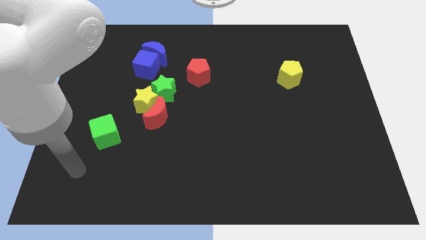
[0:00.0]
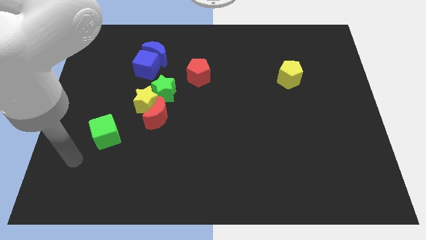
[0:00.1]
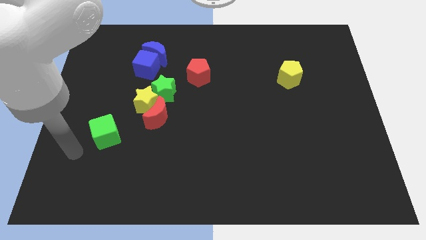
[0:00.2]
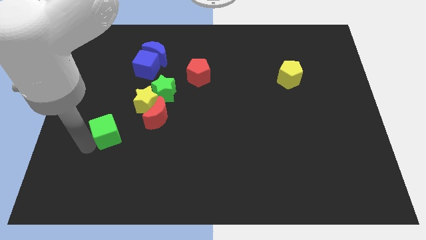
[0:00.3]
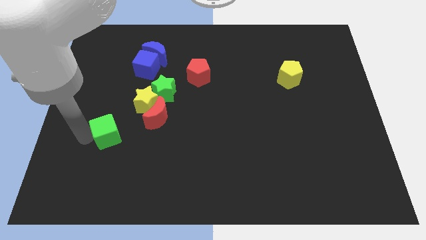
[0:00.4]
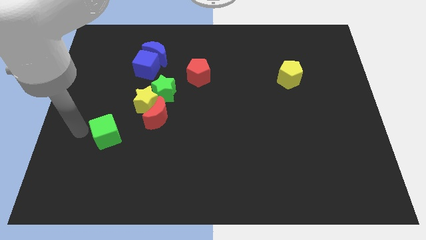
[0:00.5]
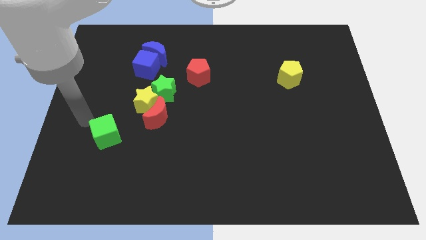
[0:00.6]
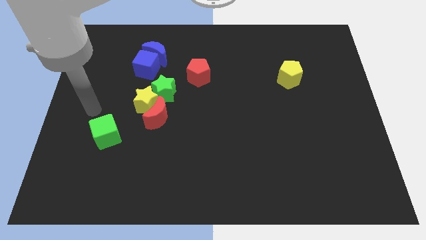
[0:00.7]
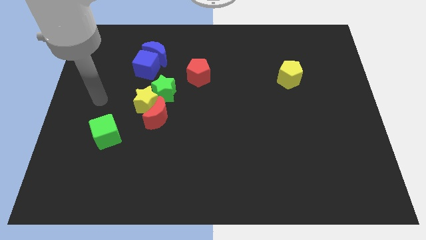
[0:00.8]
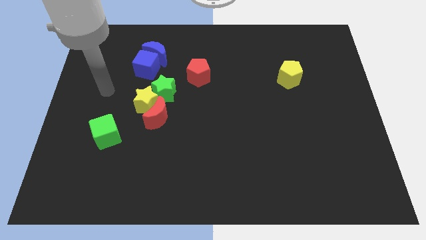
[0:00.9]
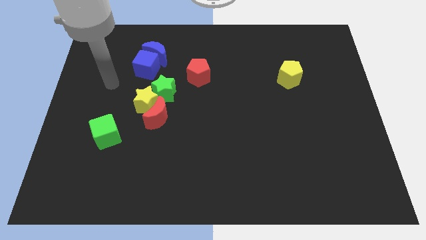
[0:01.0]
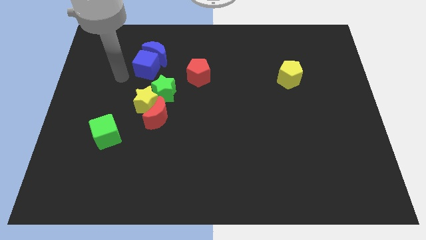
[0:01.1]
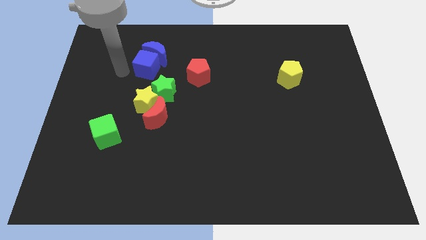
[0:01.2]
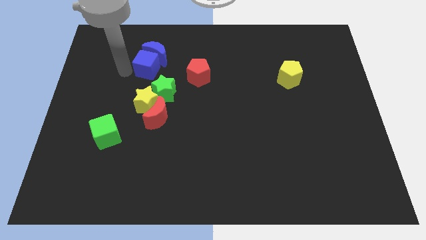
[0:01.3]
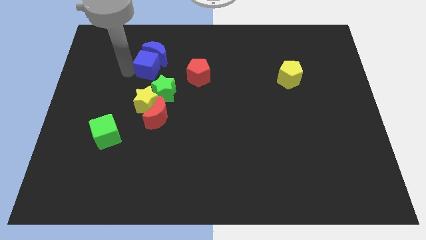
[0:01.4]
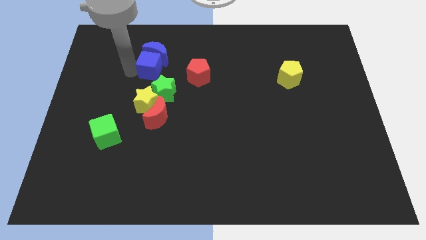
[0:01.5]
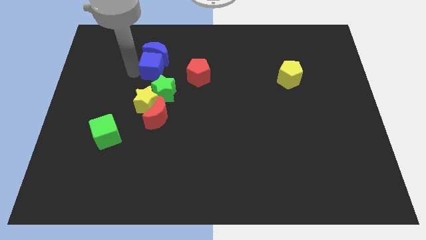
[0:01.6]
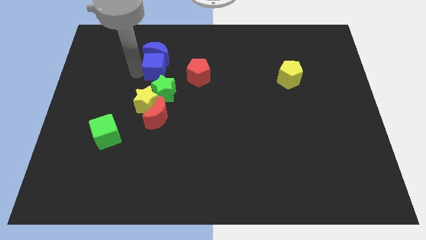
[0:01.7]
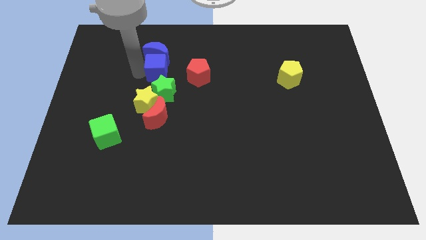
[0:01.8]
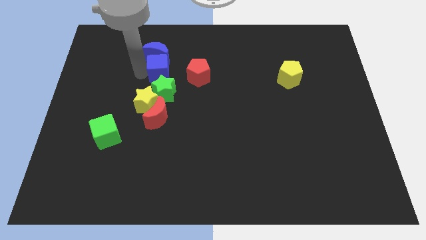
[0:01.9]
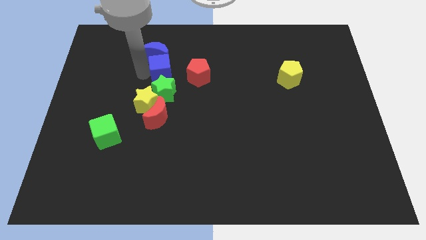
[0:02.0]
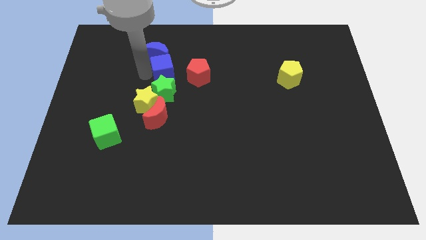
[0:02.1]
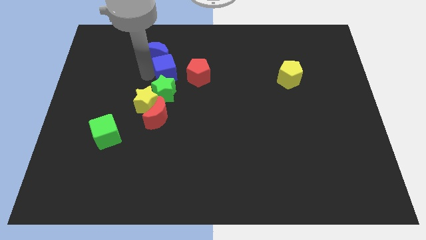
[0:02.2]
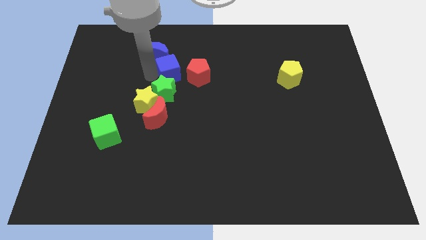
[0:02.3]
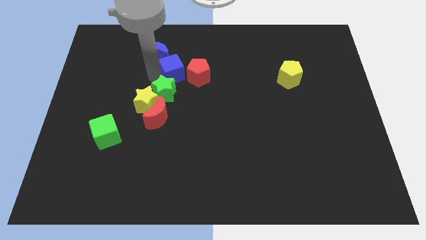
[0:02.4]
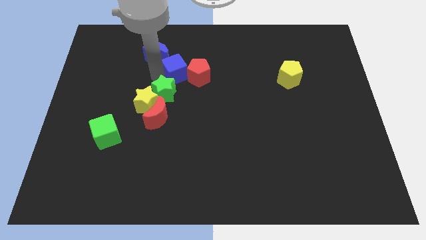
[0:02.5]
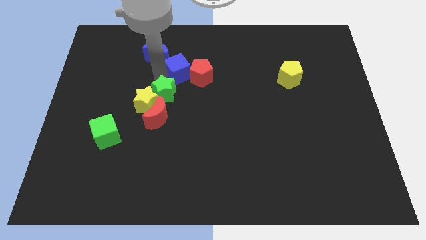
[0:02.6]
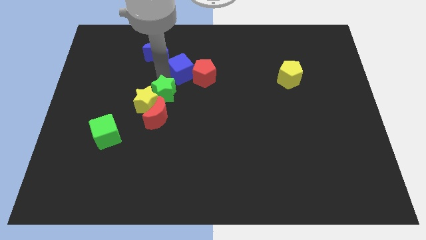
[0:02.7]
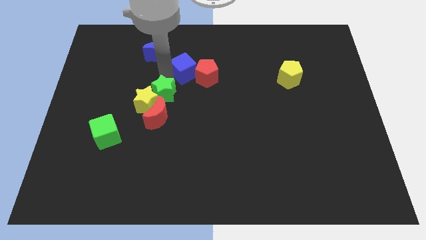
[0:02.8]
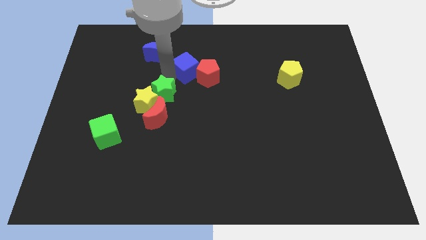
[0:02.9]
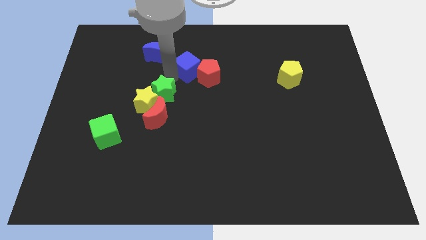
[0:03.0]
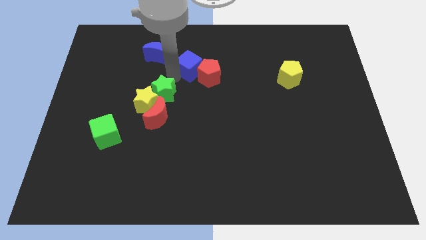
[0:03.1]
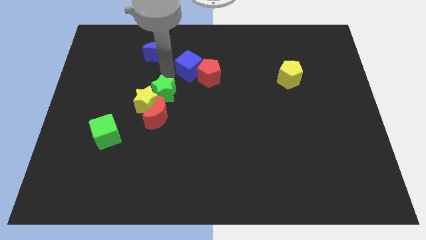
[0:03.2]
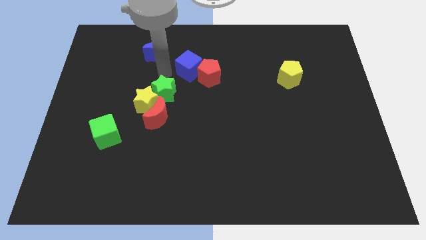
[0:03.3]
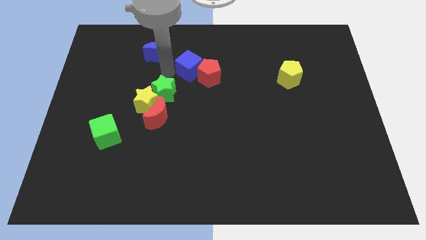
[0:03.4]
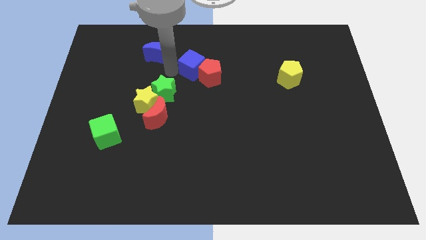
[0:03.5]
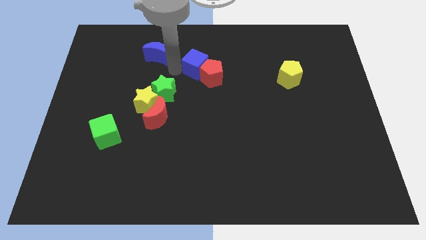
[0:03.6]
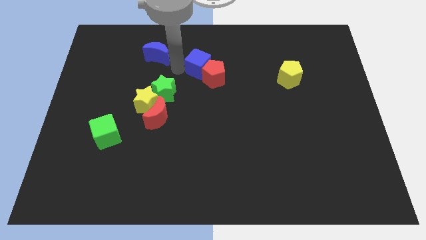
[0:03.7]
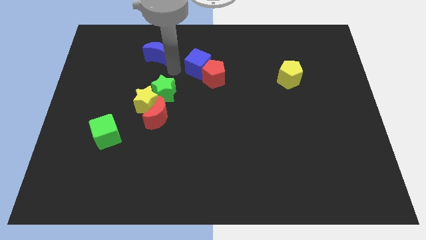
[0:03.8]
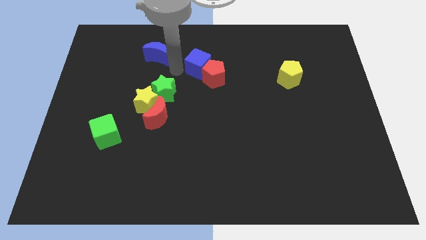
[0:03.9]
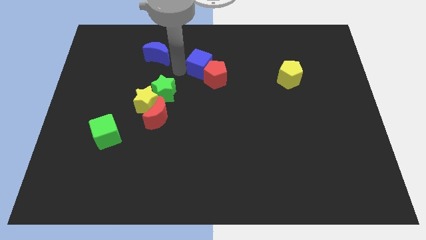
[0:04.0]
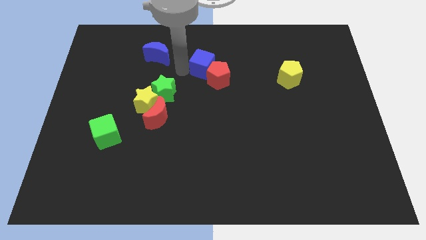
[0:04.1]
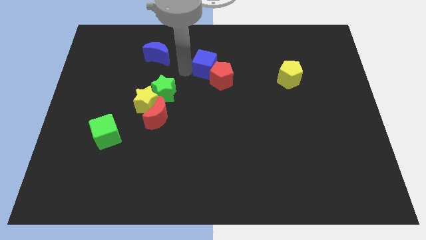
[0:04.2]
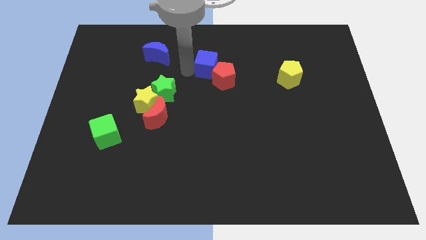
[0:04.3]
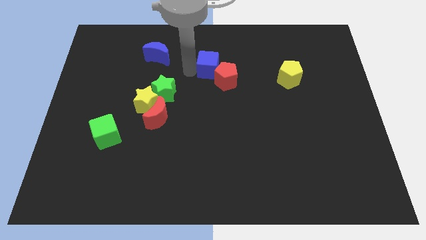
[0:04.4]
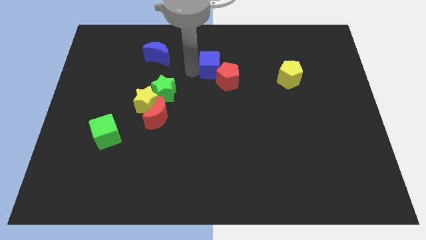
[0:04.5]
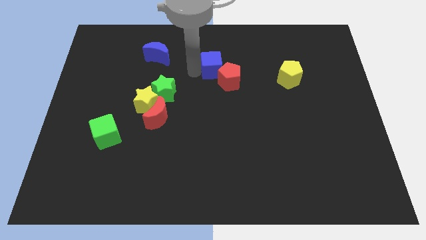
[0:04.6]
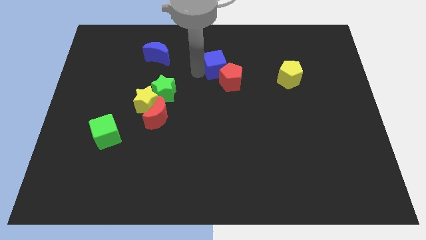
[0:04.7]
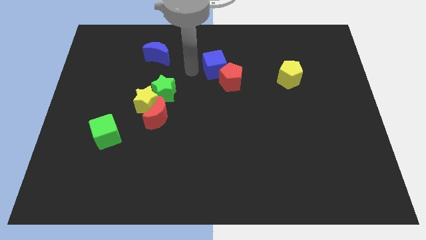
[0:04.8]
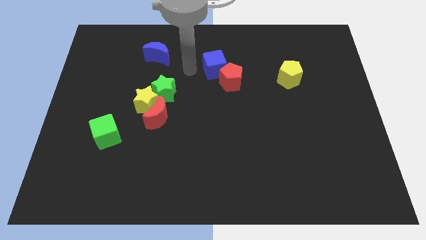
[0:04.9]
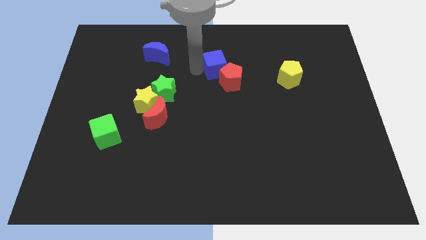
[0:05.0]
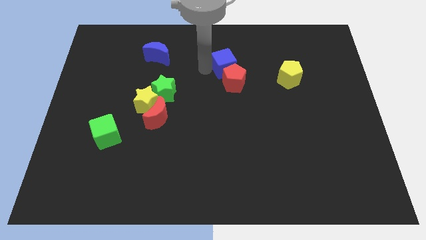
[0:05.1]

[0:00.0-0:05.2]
move the blue cube to the right

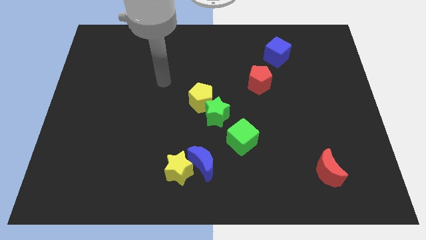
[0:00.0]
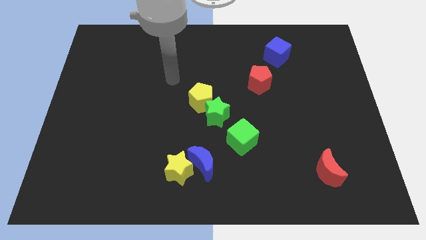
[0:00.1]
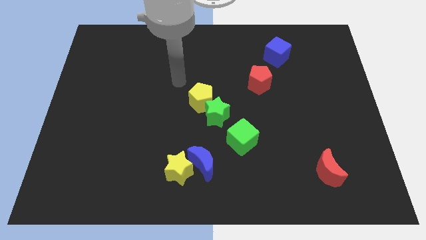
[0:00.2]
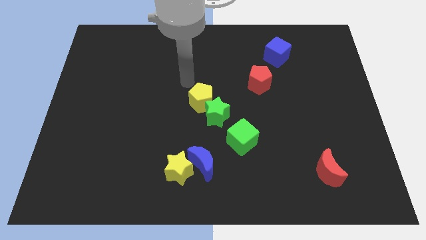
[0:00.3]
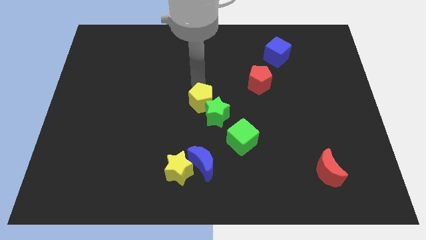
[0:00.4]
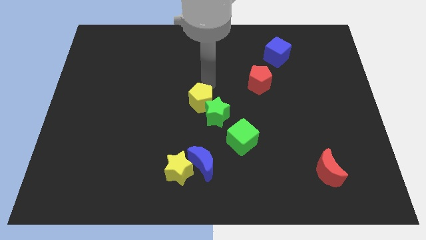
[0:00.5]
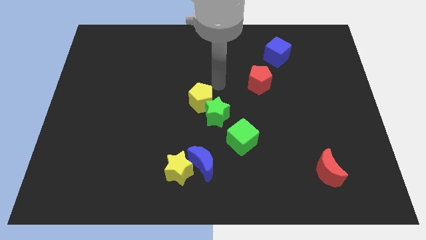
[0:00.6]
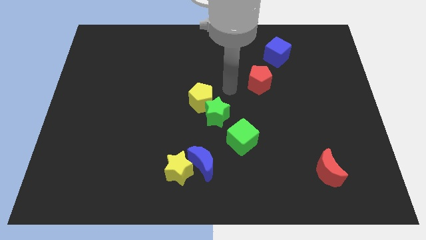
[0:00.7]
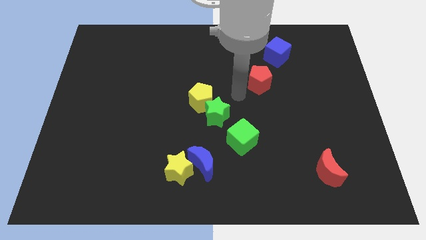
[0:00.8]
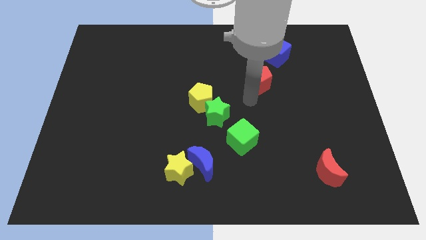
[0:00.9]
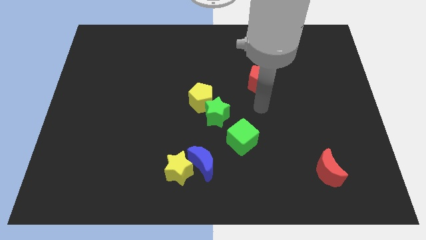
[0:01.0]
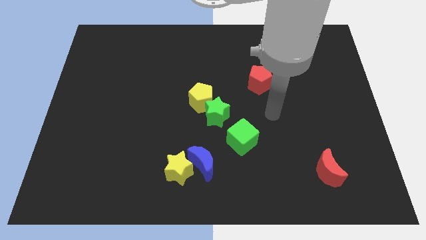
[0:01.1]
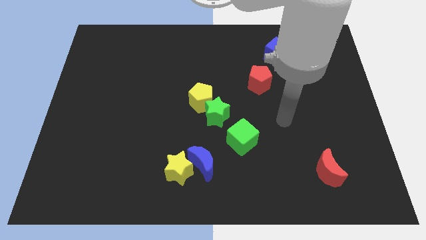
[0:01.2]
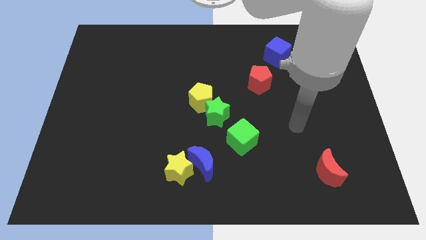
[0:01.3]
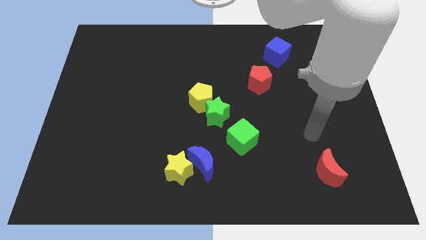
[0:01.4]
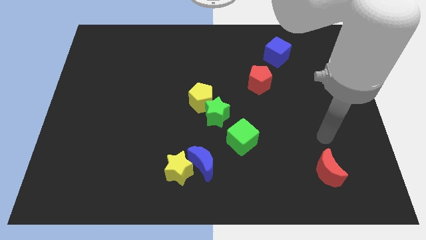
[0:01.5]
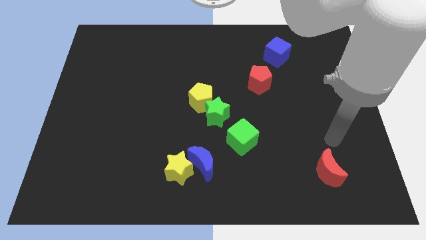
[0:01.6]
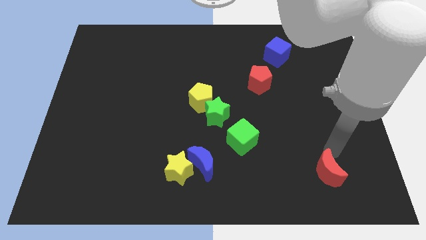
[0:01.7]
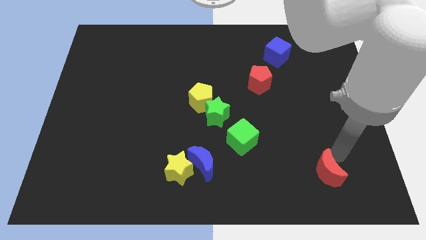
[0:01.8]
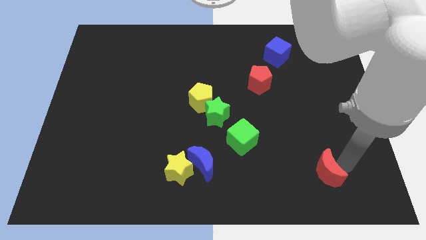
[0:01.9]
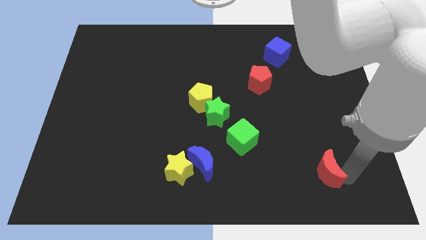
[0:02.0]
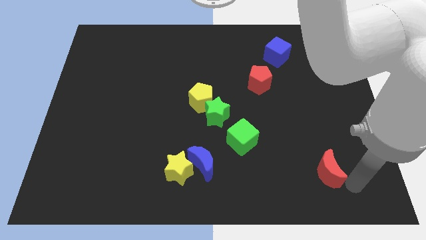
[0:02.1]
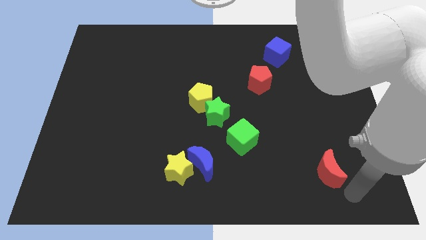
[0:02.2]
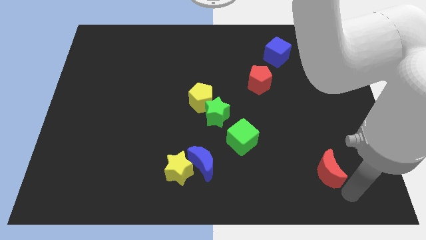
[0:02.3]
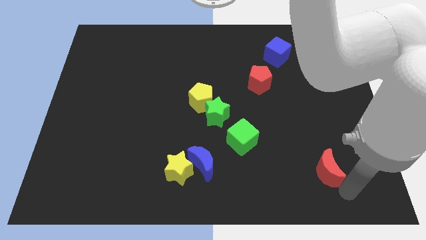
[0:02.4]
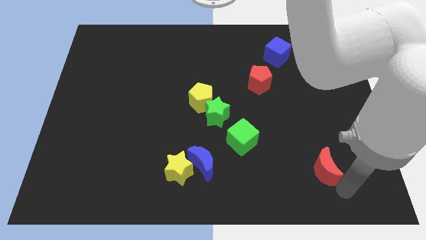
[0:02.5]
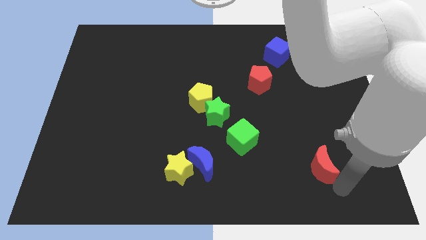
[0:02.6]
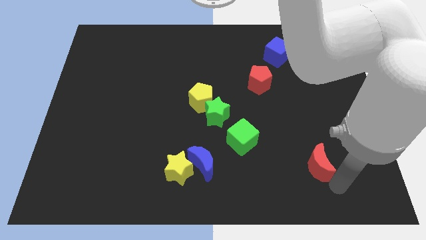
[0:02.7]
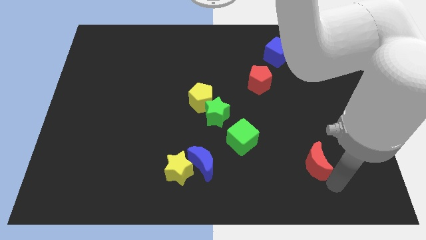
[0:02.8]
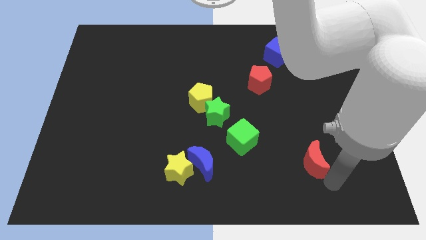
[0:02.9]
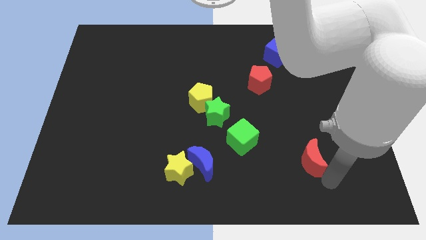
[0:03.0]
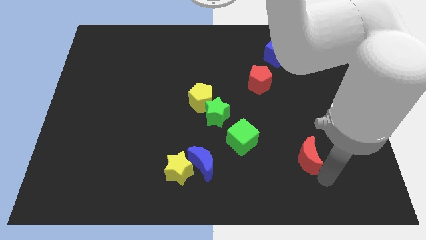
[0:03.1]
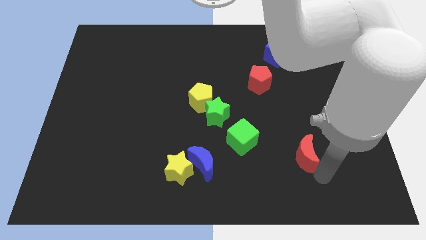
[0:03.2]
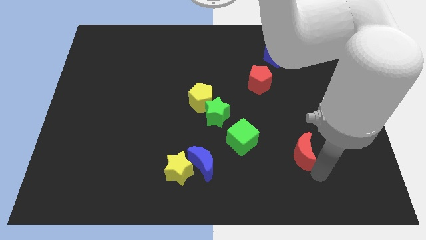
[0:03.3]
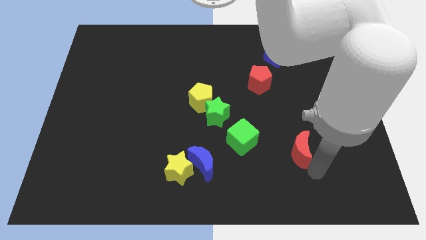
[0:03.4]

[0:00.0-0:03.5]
move the red moon a bit upwards and to the left
